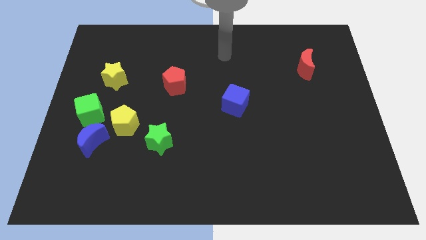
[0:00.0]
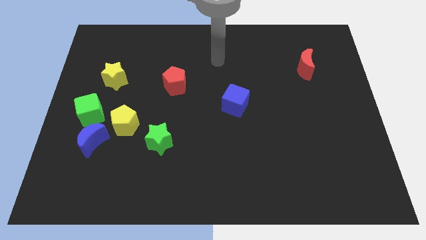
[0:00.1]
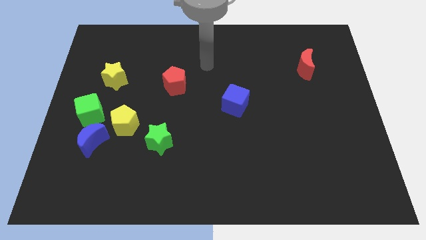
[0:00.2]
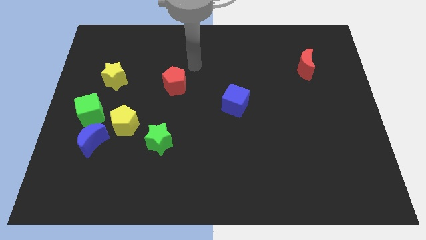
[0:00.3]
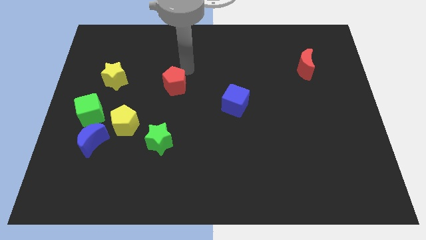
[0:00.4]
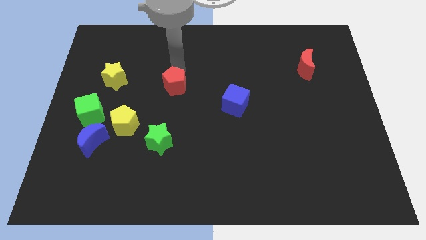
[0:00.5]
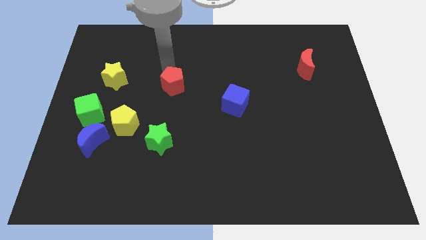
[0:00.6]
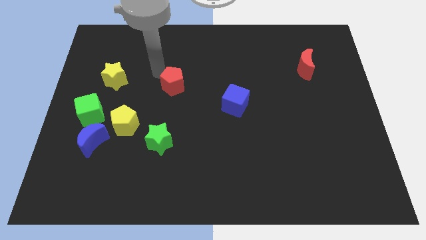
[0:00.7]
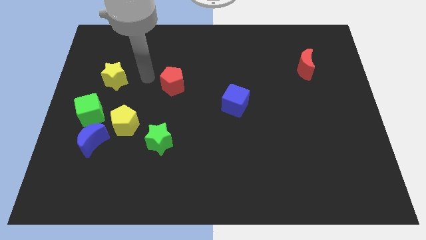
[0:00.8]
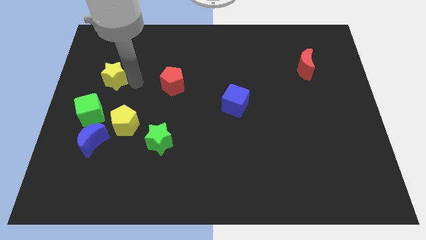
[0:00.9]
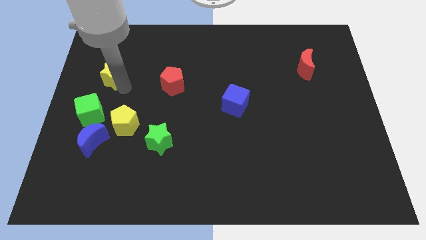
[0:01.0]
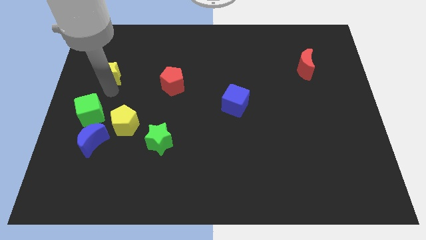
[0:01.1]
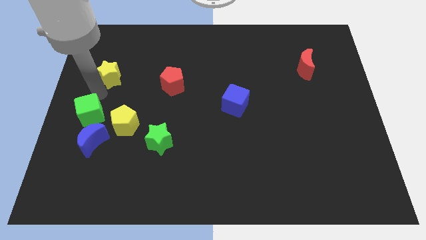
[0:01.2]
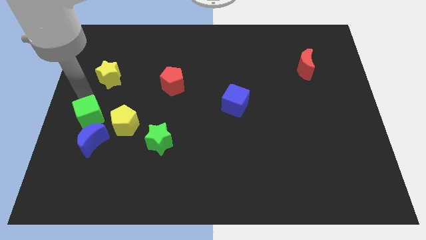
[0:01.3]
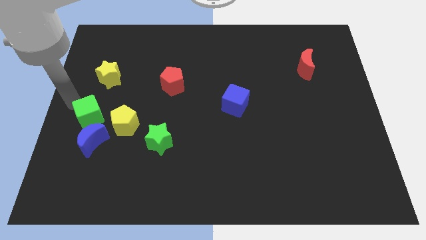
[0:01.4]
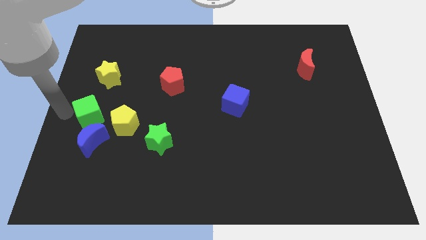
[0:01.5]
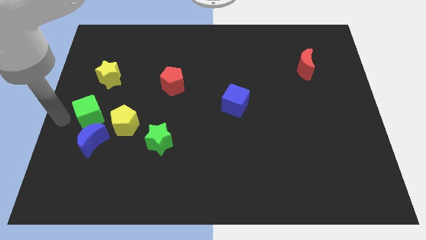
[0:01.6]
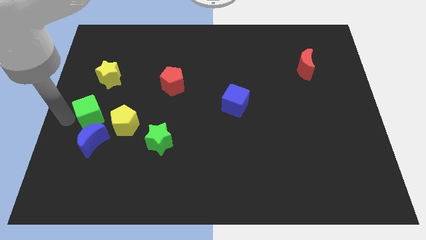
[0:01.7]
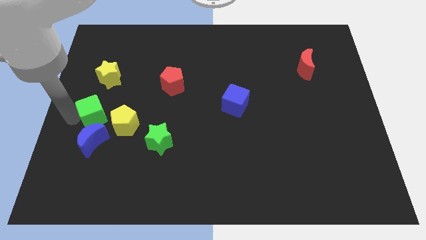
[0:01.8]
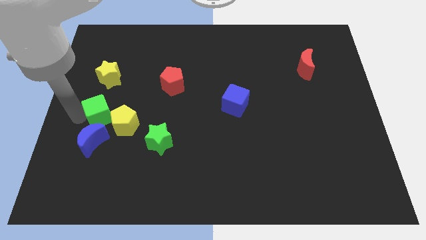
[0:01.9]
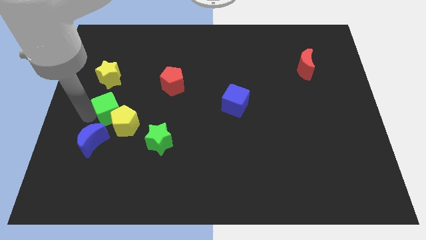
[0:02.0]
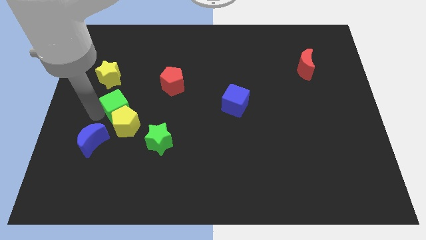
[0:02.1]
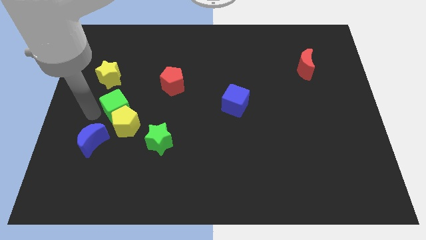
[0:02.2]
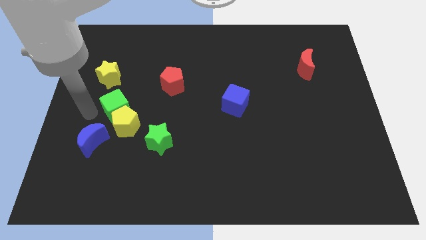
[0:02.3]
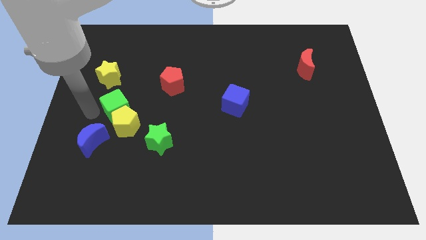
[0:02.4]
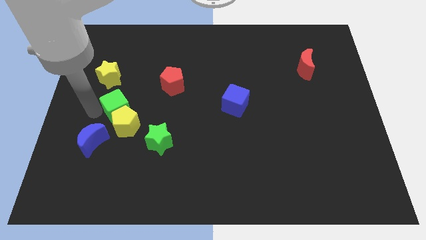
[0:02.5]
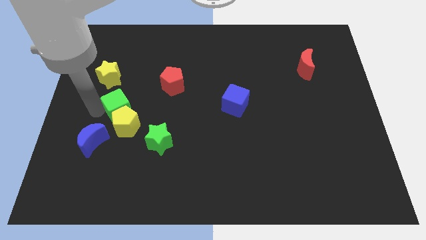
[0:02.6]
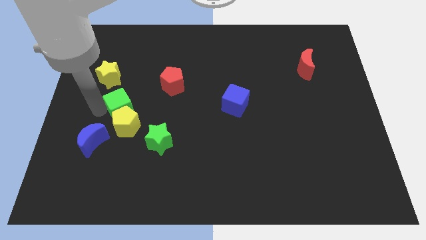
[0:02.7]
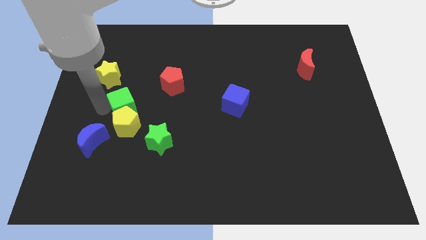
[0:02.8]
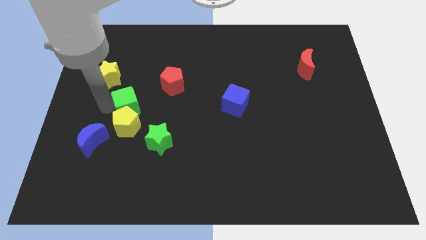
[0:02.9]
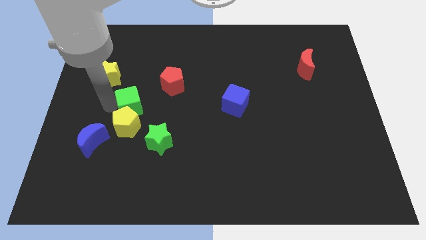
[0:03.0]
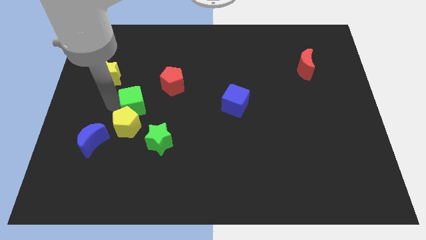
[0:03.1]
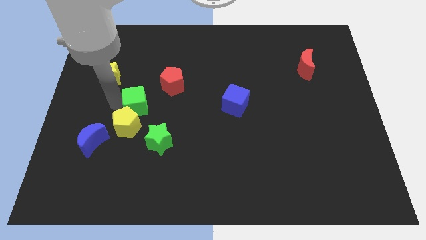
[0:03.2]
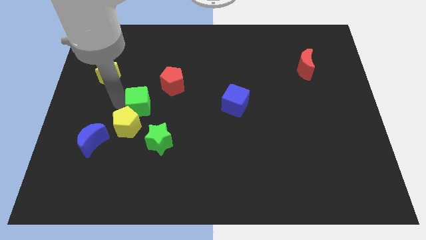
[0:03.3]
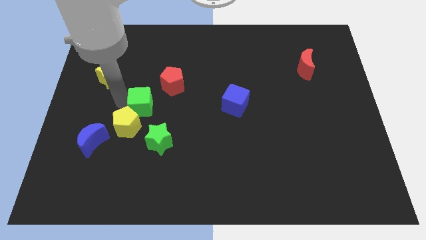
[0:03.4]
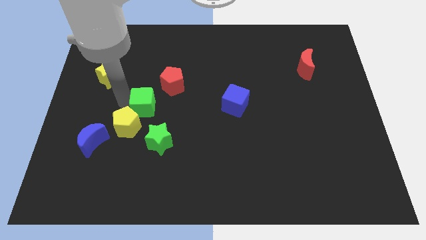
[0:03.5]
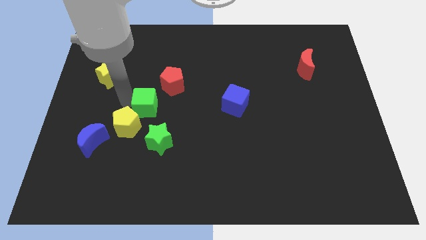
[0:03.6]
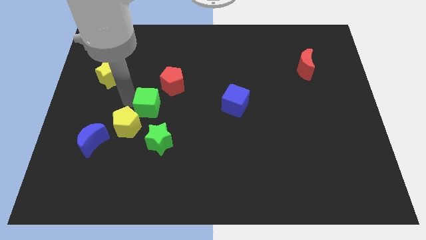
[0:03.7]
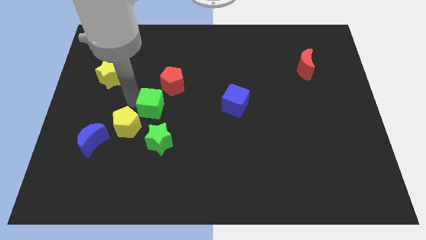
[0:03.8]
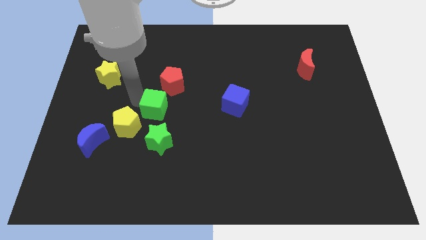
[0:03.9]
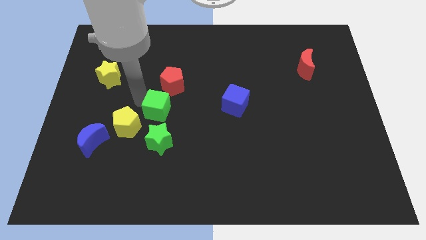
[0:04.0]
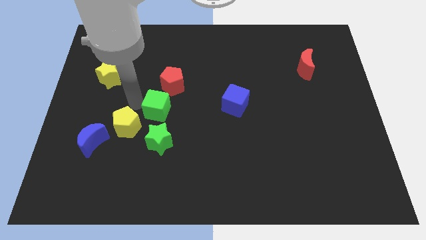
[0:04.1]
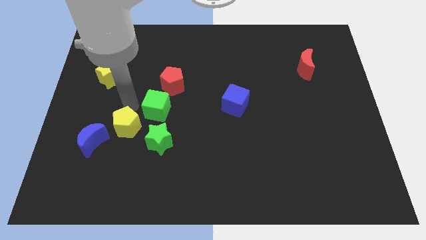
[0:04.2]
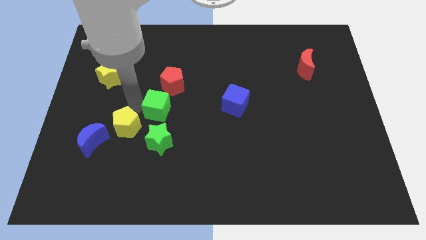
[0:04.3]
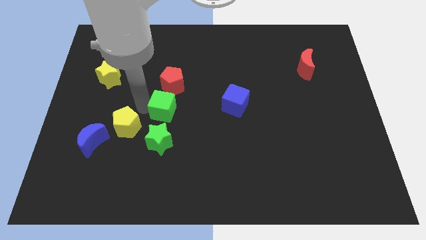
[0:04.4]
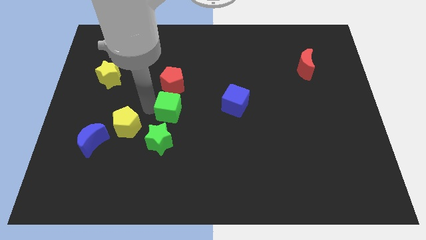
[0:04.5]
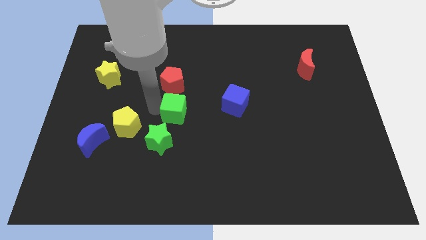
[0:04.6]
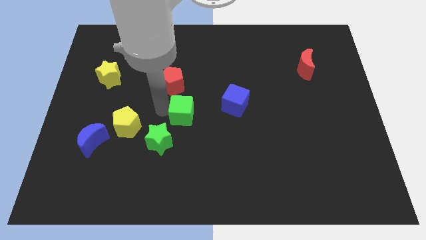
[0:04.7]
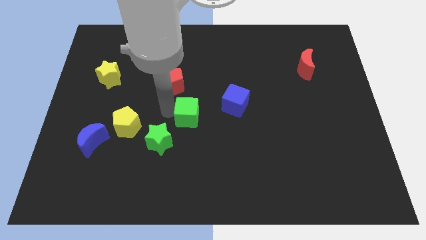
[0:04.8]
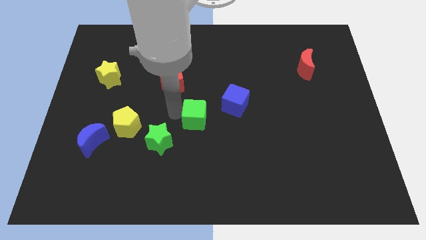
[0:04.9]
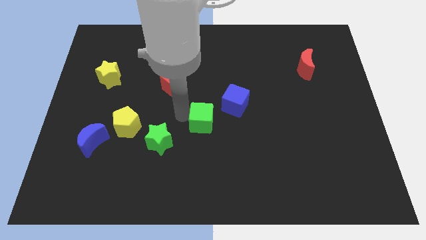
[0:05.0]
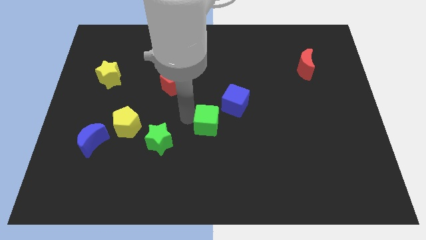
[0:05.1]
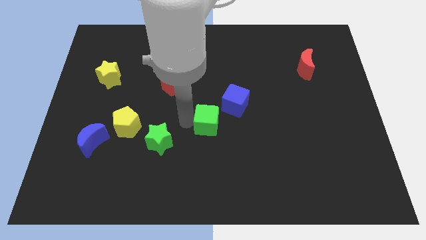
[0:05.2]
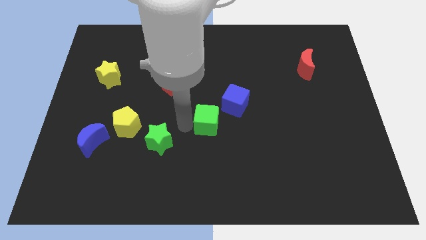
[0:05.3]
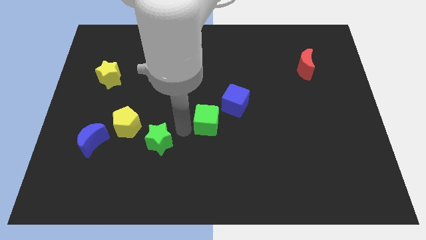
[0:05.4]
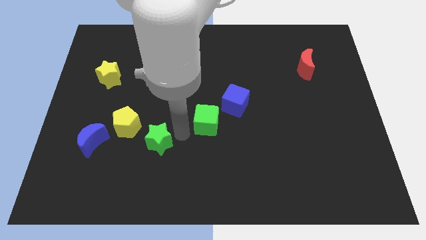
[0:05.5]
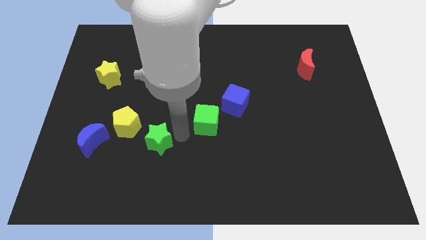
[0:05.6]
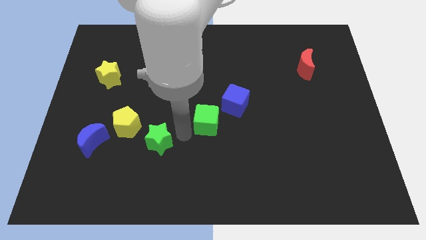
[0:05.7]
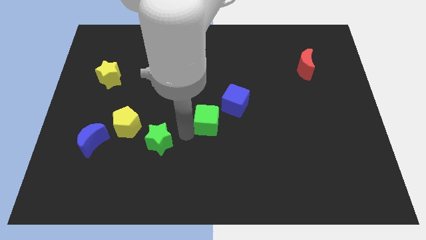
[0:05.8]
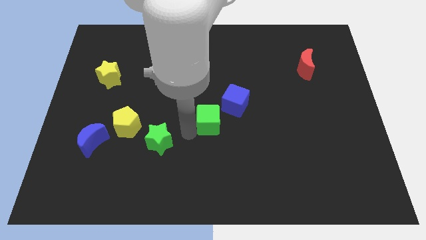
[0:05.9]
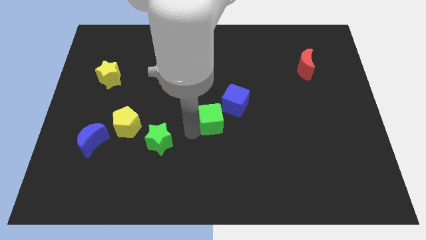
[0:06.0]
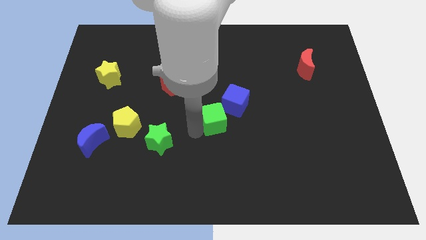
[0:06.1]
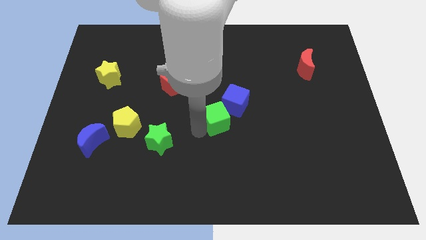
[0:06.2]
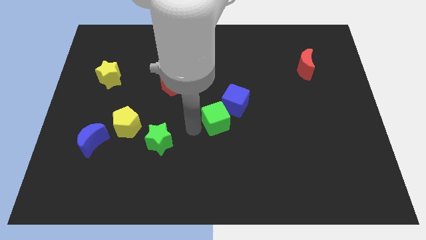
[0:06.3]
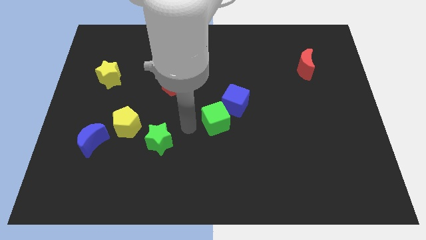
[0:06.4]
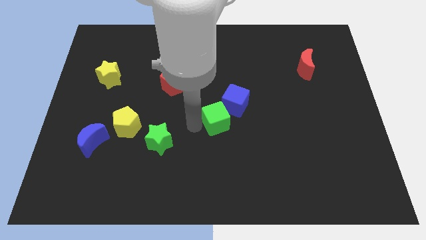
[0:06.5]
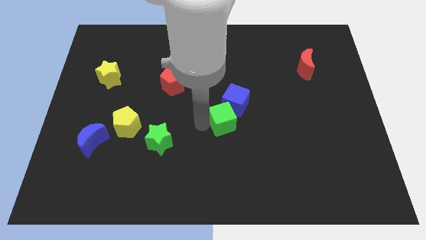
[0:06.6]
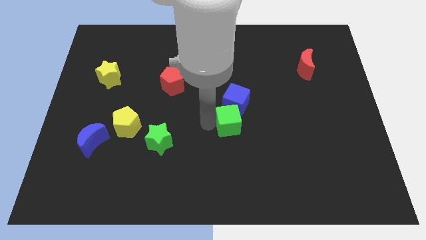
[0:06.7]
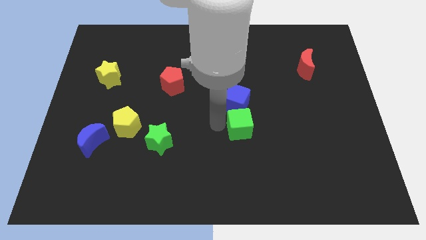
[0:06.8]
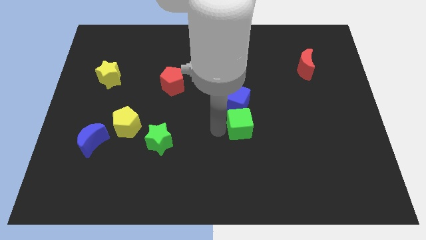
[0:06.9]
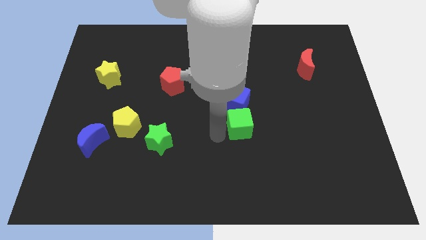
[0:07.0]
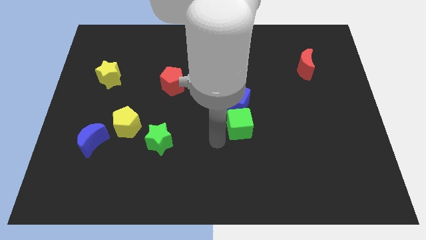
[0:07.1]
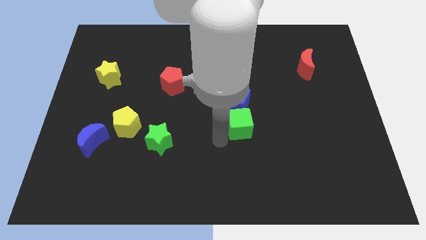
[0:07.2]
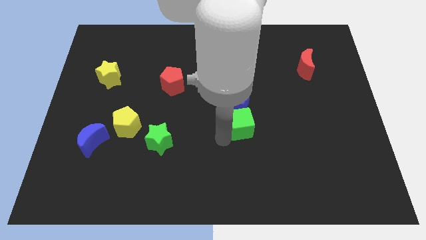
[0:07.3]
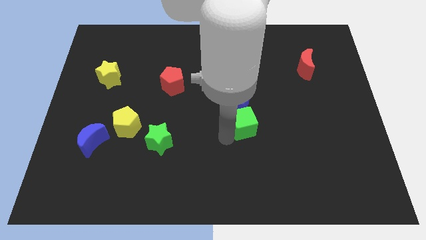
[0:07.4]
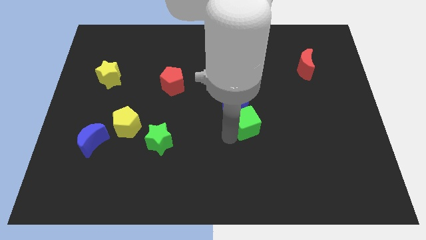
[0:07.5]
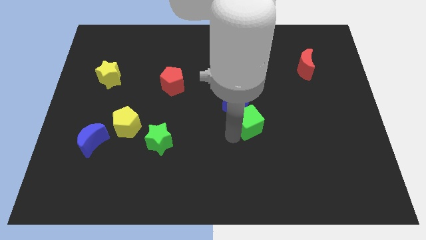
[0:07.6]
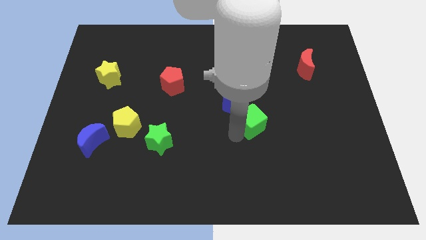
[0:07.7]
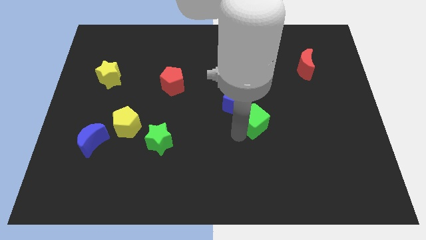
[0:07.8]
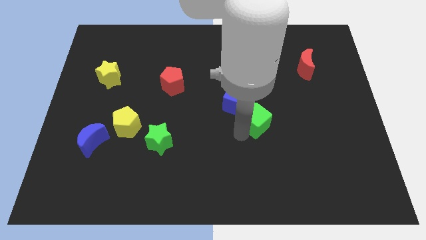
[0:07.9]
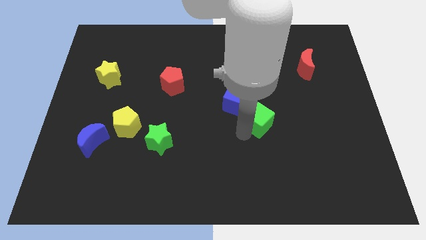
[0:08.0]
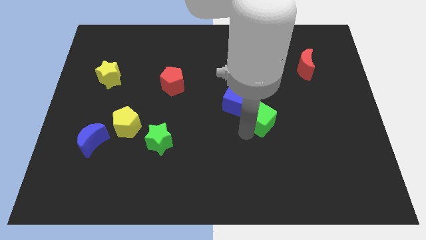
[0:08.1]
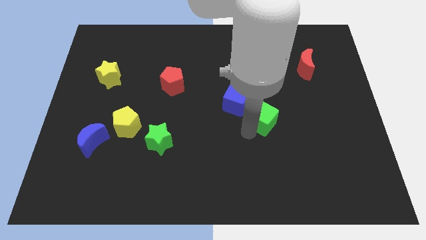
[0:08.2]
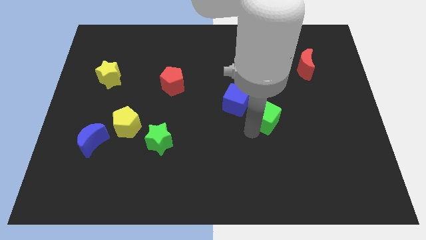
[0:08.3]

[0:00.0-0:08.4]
put the green cube to the right of the blue cube
